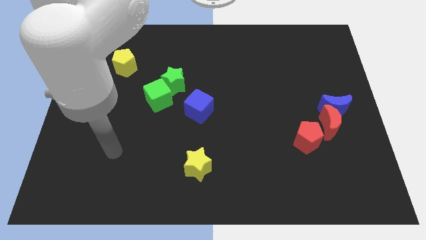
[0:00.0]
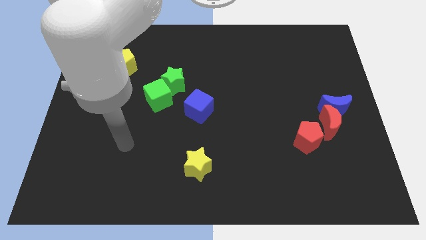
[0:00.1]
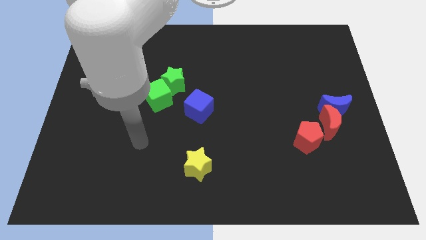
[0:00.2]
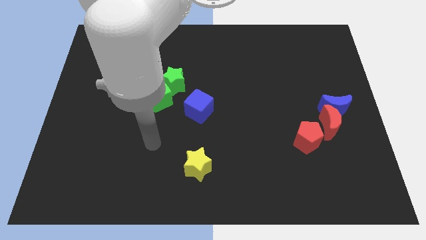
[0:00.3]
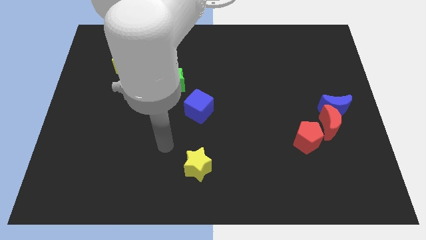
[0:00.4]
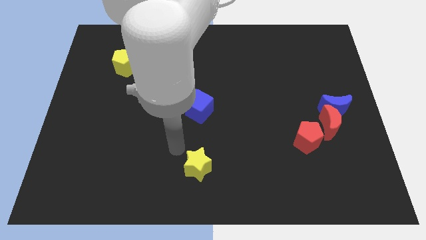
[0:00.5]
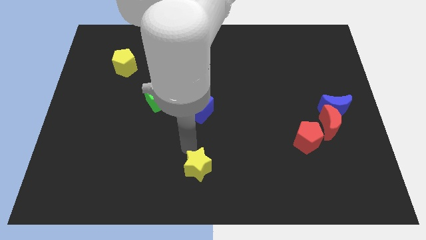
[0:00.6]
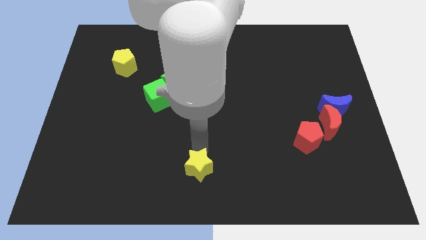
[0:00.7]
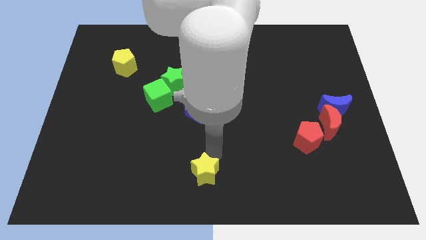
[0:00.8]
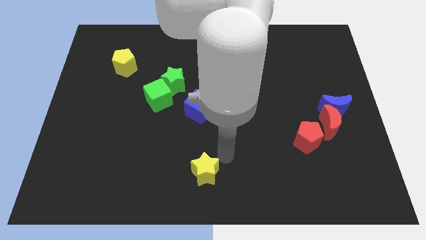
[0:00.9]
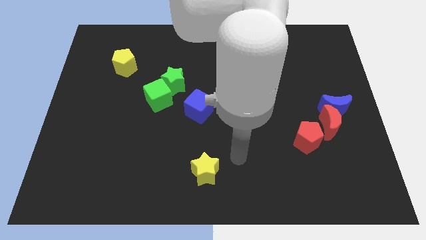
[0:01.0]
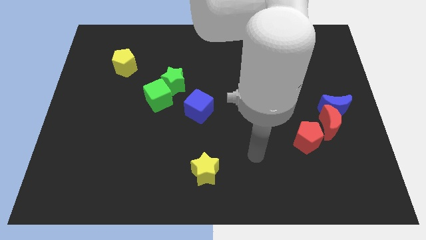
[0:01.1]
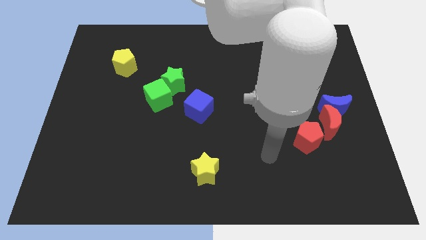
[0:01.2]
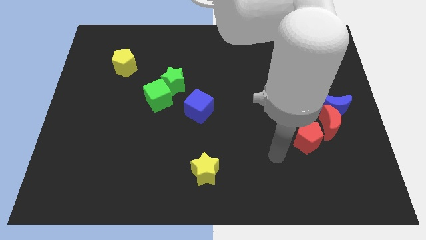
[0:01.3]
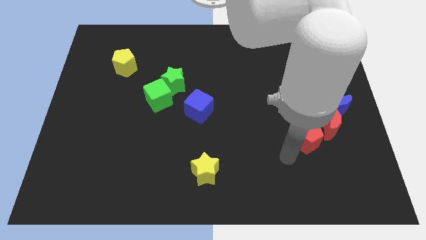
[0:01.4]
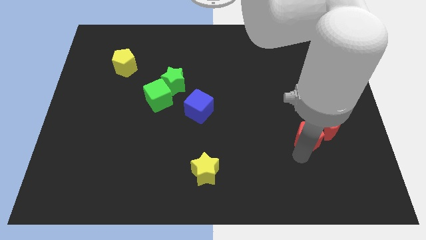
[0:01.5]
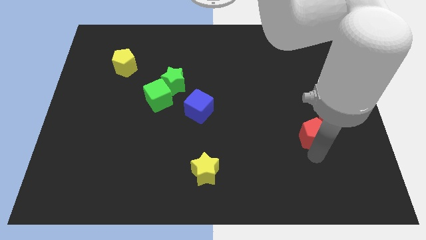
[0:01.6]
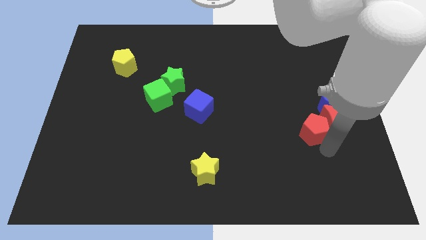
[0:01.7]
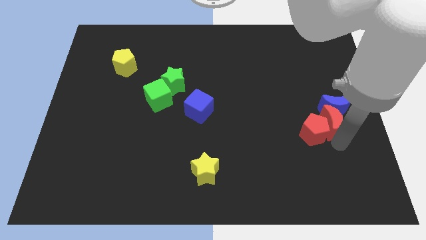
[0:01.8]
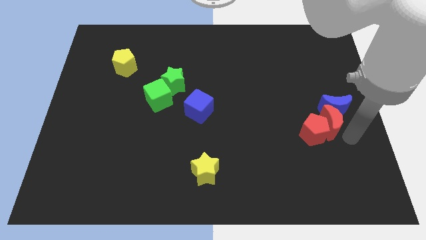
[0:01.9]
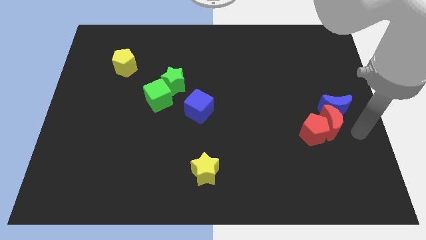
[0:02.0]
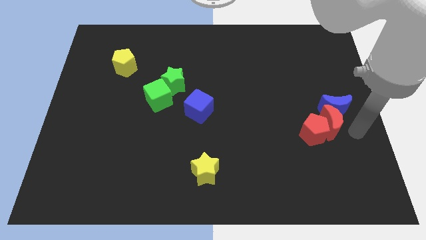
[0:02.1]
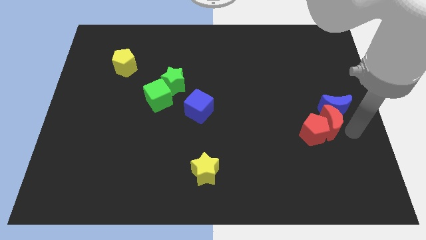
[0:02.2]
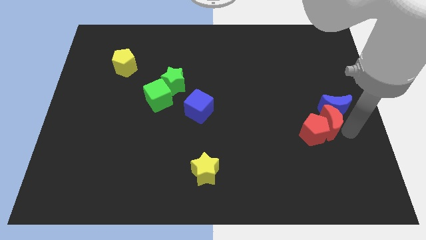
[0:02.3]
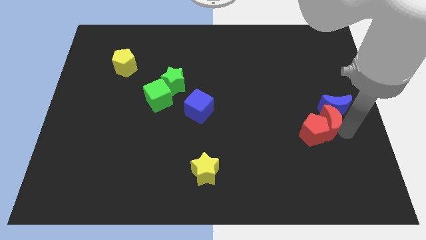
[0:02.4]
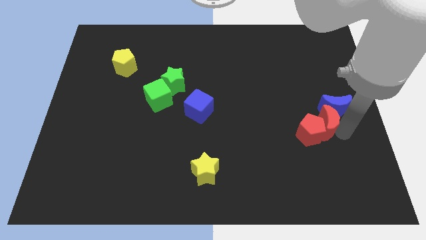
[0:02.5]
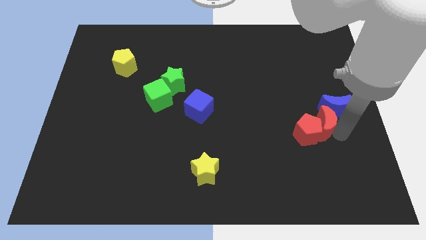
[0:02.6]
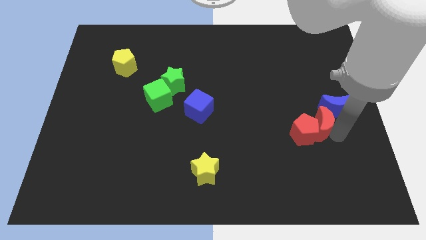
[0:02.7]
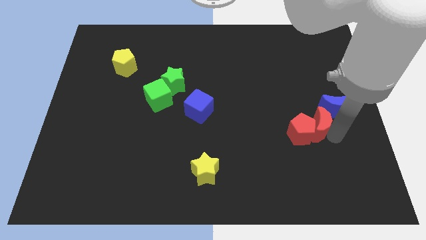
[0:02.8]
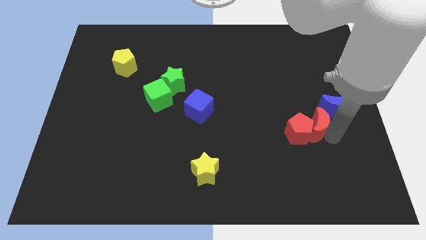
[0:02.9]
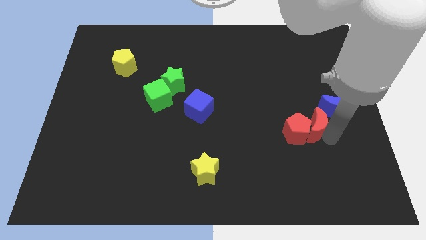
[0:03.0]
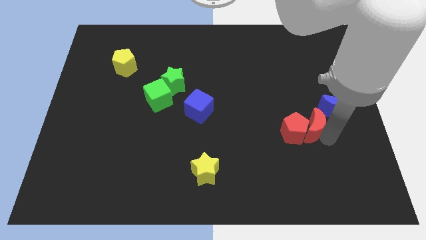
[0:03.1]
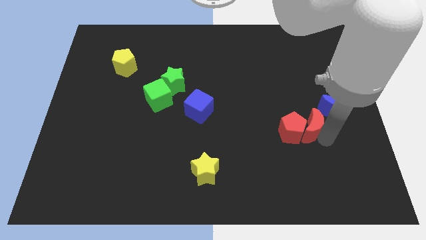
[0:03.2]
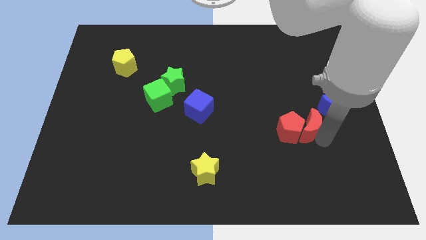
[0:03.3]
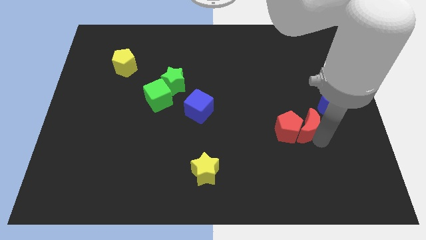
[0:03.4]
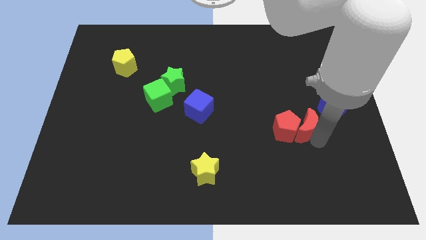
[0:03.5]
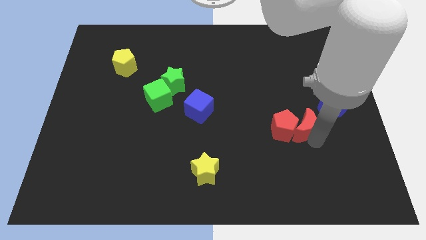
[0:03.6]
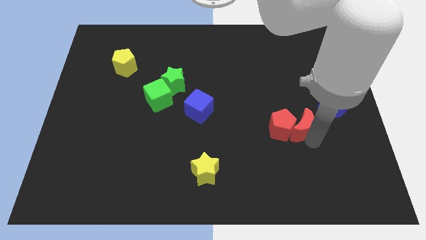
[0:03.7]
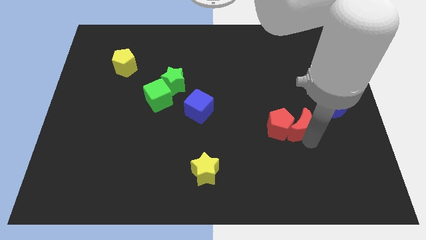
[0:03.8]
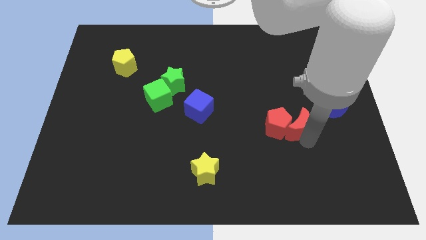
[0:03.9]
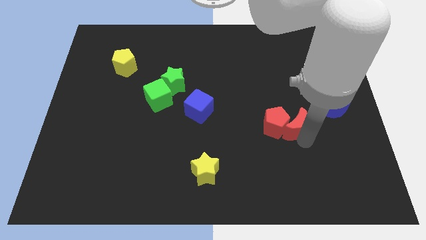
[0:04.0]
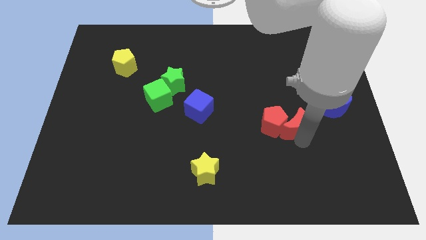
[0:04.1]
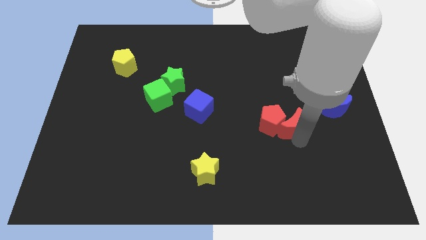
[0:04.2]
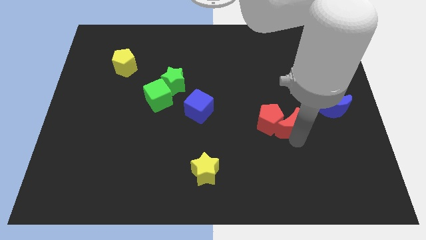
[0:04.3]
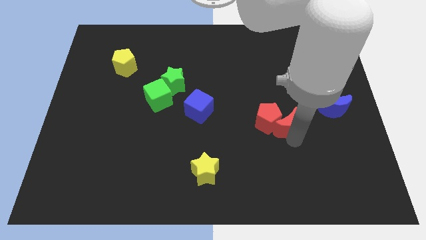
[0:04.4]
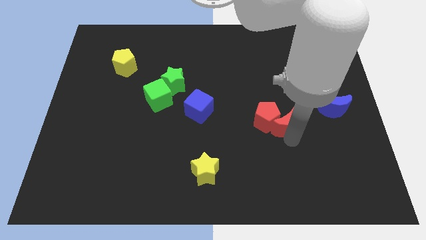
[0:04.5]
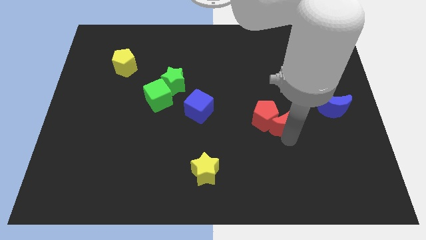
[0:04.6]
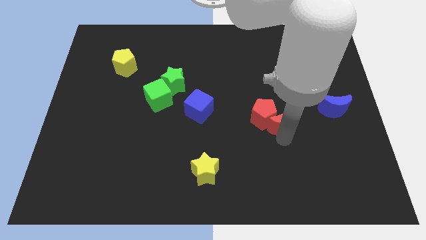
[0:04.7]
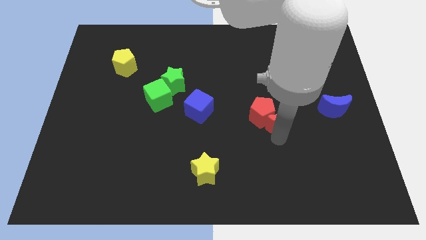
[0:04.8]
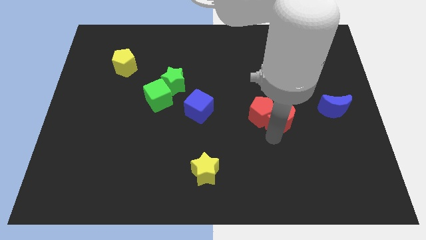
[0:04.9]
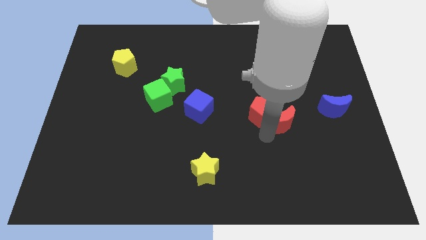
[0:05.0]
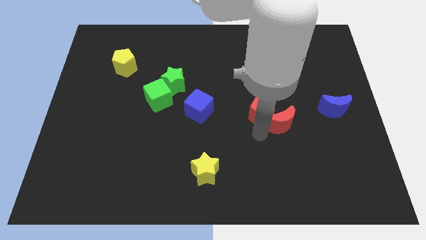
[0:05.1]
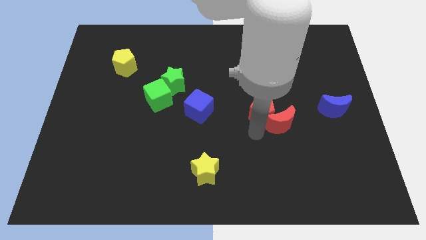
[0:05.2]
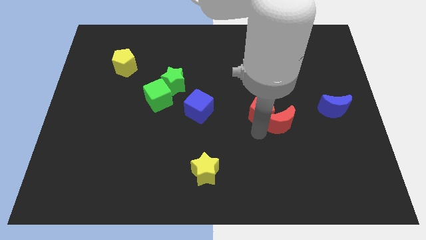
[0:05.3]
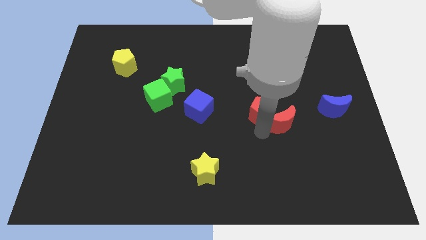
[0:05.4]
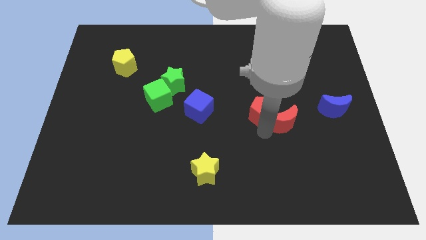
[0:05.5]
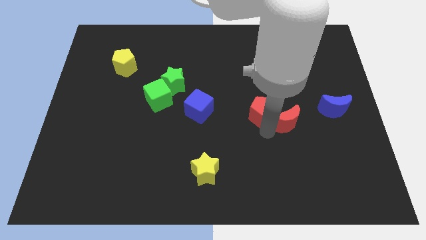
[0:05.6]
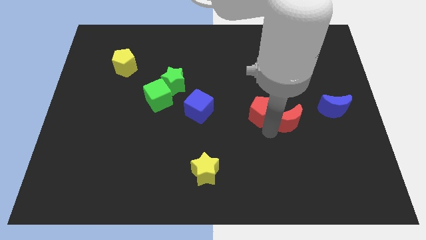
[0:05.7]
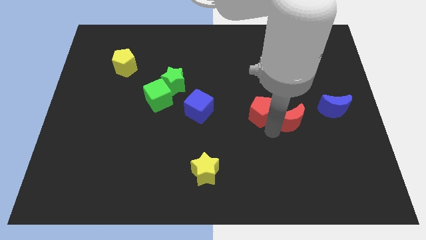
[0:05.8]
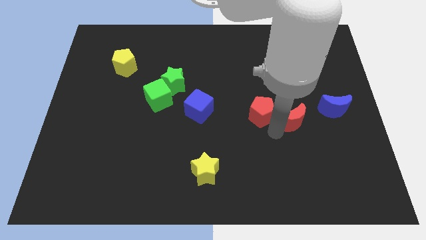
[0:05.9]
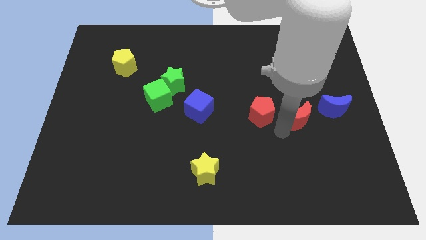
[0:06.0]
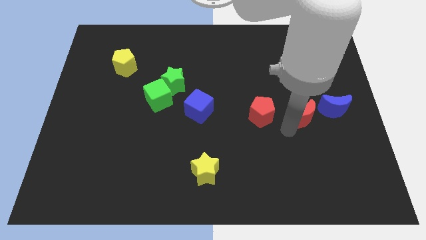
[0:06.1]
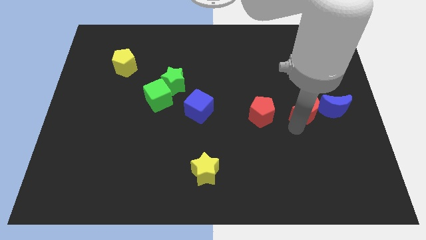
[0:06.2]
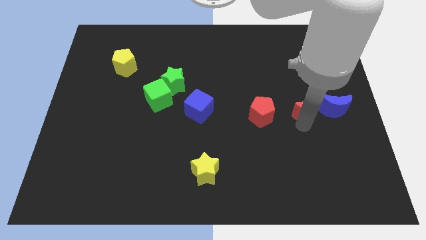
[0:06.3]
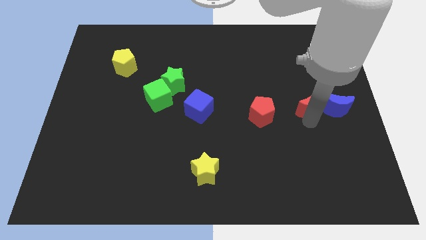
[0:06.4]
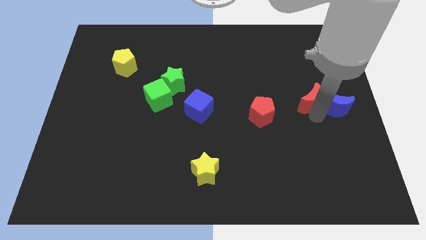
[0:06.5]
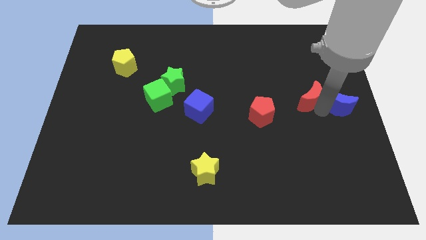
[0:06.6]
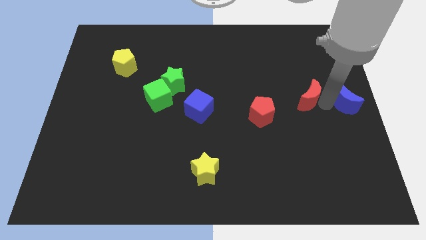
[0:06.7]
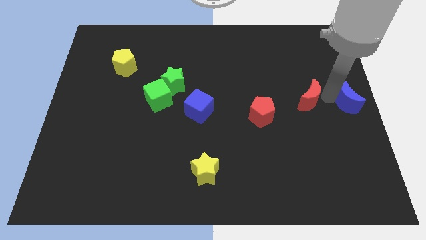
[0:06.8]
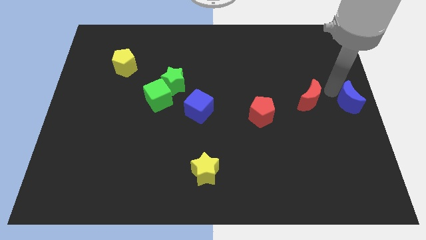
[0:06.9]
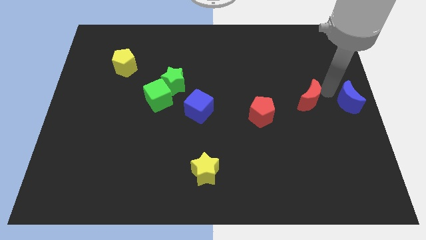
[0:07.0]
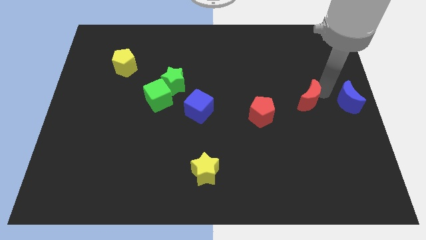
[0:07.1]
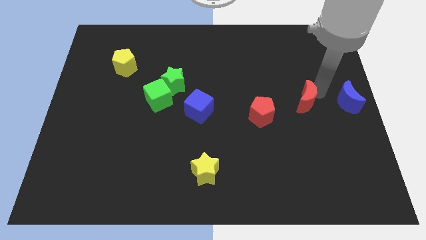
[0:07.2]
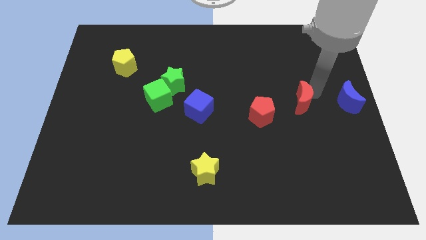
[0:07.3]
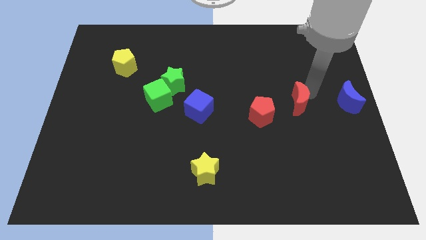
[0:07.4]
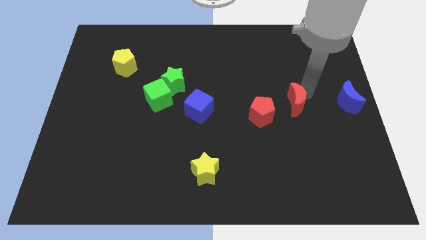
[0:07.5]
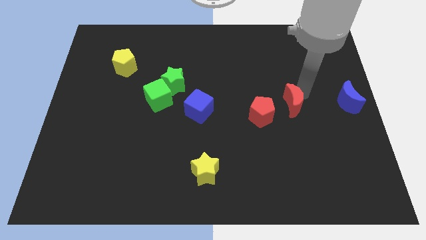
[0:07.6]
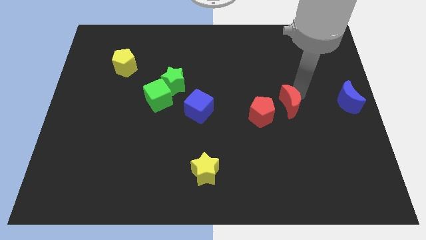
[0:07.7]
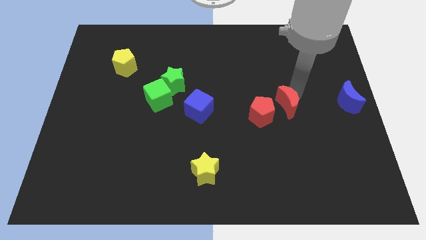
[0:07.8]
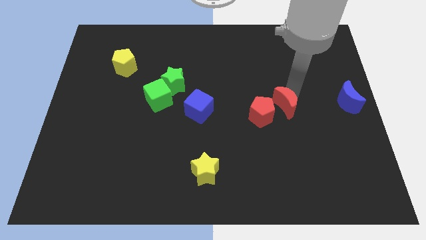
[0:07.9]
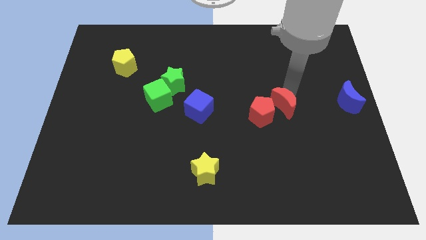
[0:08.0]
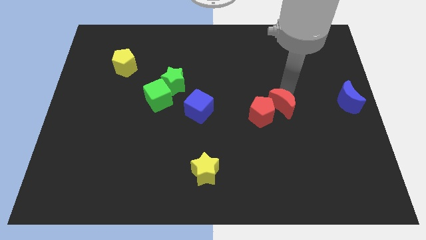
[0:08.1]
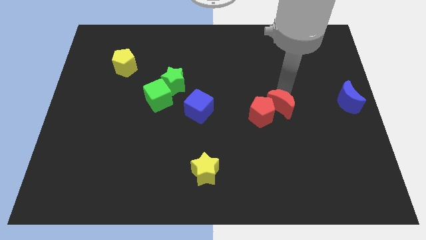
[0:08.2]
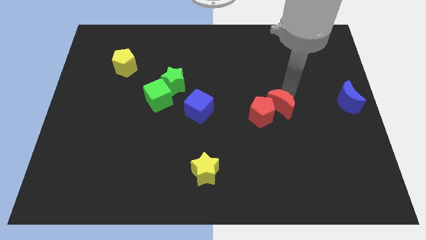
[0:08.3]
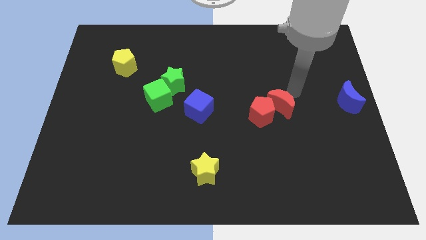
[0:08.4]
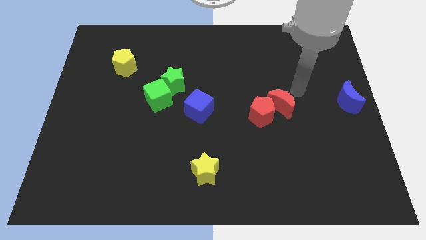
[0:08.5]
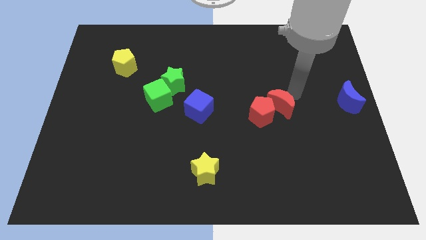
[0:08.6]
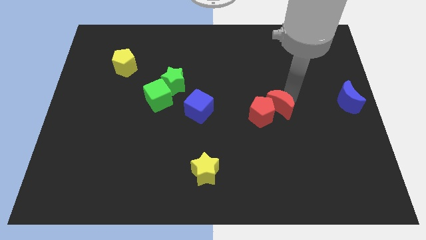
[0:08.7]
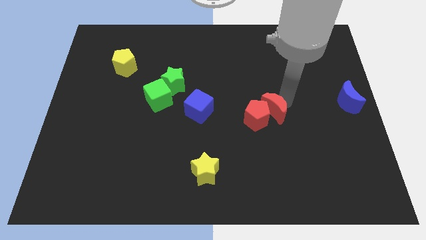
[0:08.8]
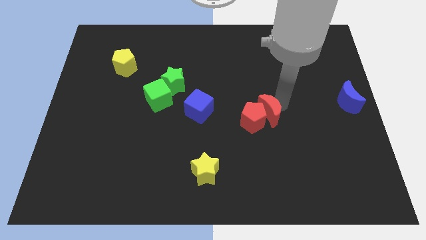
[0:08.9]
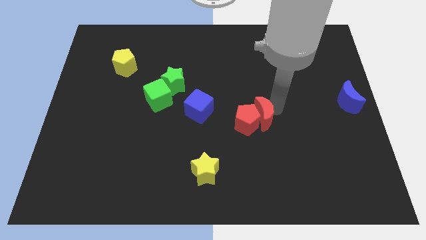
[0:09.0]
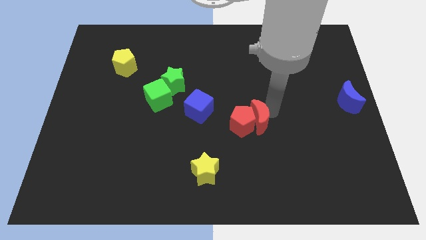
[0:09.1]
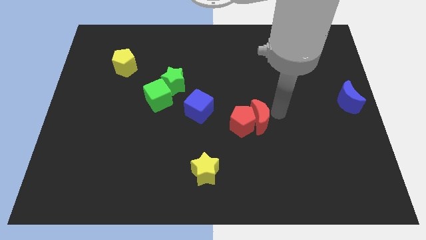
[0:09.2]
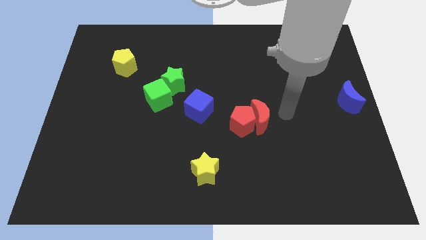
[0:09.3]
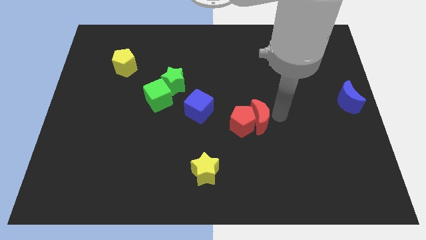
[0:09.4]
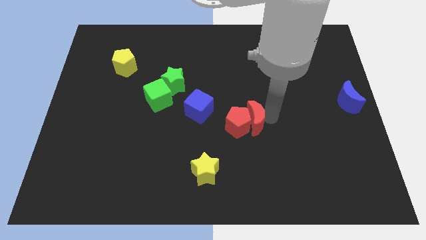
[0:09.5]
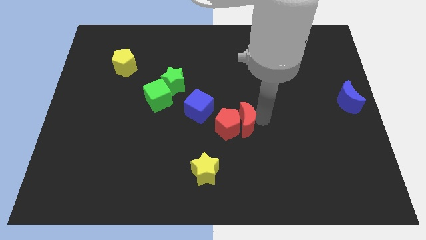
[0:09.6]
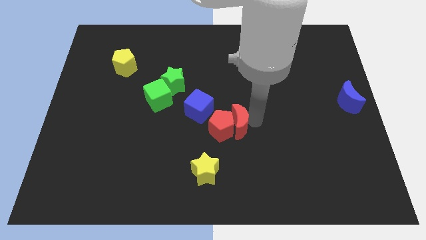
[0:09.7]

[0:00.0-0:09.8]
push the red moon diagonally down and to the right of the blue cube
